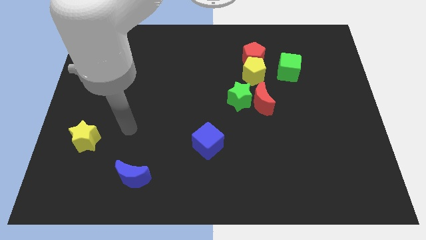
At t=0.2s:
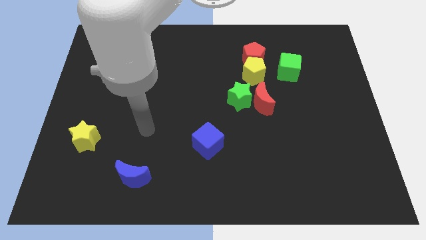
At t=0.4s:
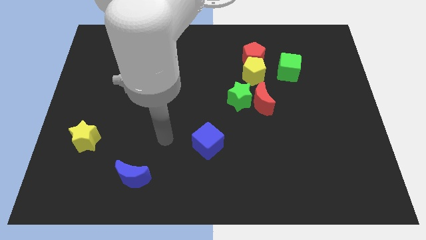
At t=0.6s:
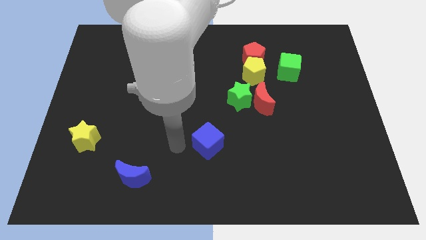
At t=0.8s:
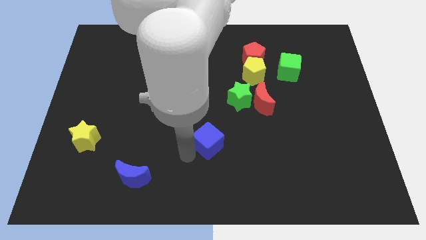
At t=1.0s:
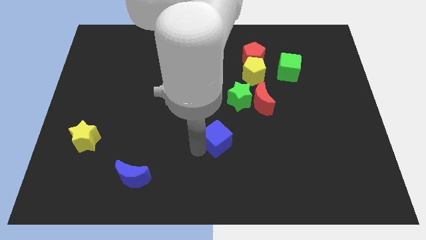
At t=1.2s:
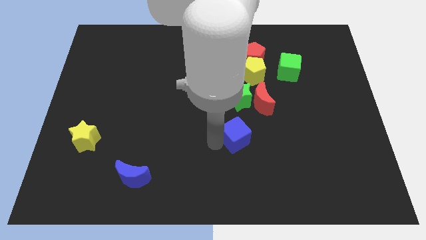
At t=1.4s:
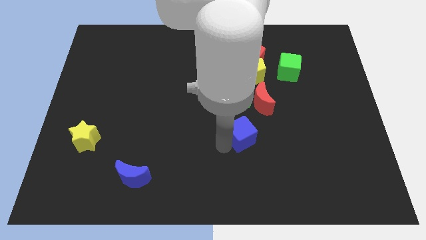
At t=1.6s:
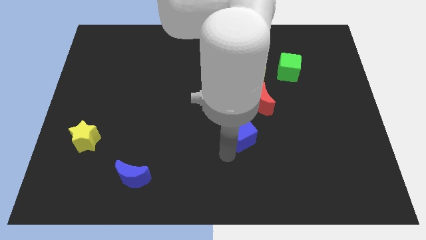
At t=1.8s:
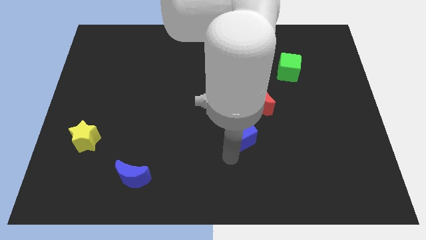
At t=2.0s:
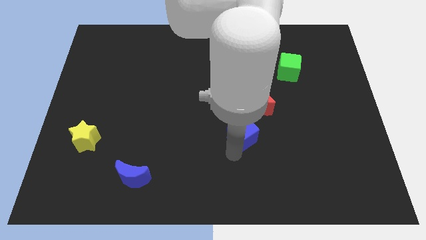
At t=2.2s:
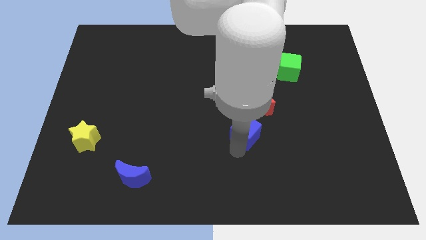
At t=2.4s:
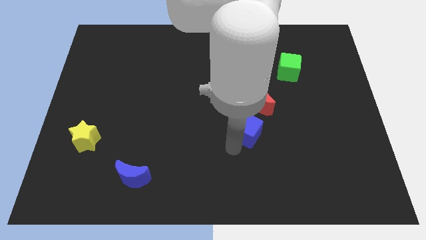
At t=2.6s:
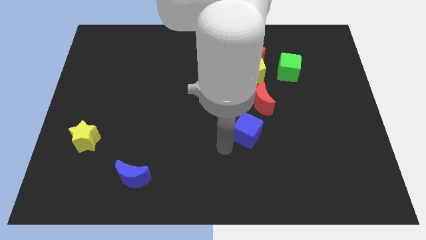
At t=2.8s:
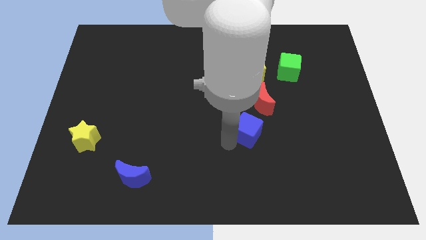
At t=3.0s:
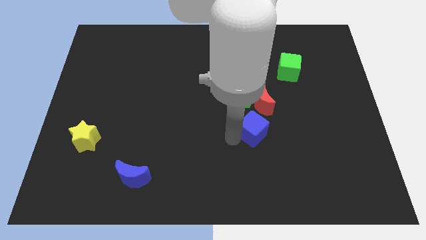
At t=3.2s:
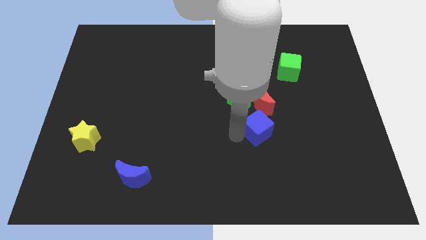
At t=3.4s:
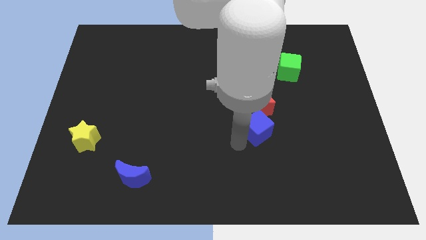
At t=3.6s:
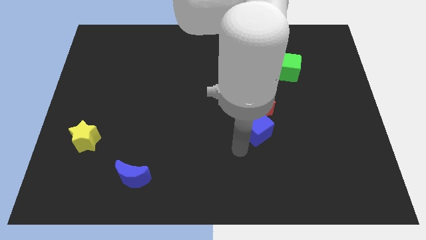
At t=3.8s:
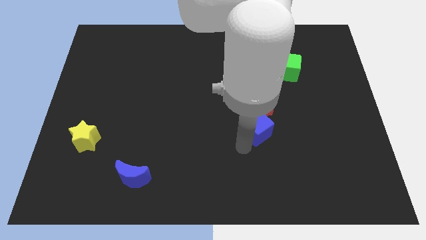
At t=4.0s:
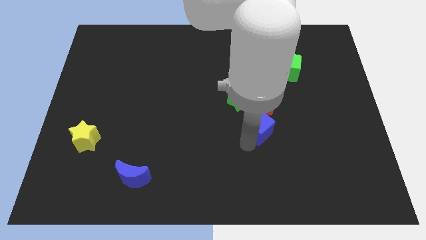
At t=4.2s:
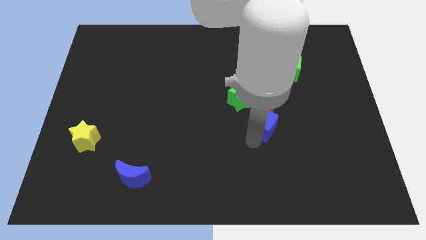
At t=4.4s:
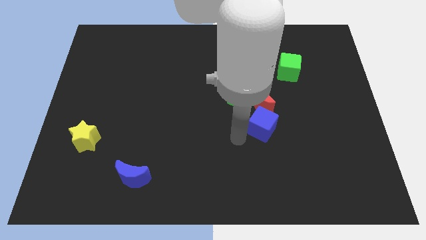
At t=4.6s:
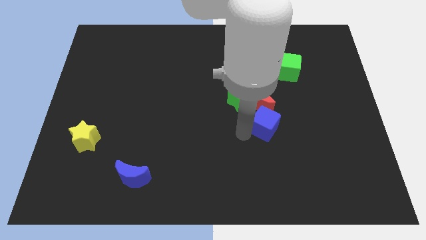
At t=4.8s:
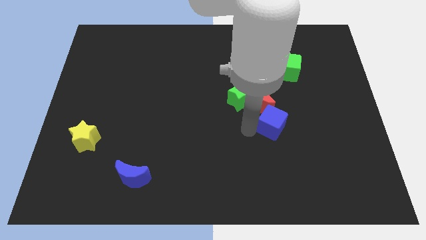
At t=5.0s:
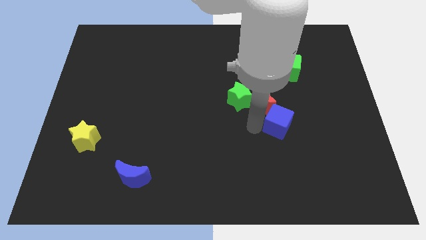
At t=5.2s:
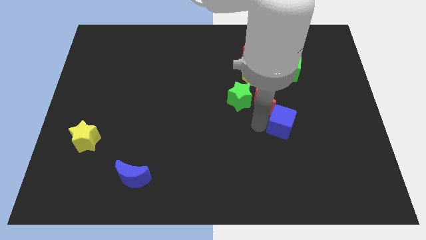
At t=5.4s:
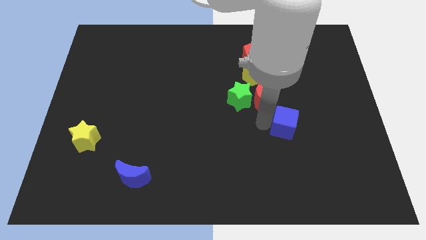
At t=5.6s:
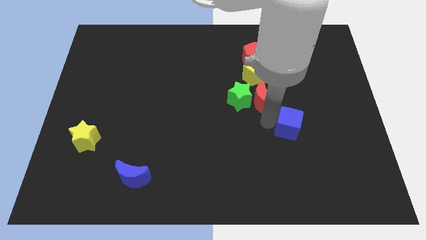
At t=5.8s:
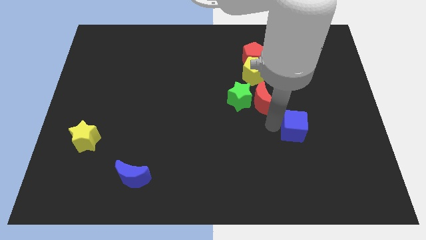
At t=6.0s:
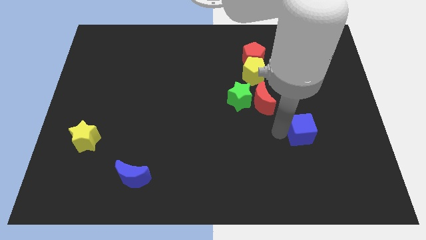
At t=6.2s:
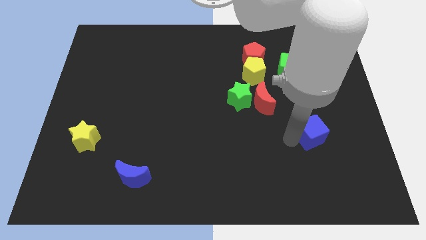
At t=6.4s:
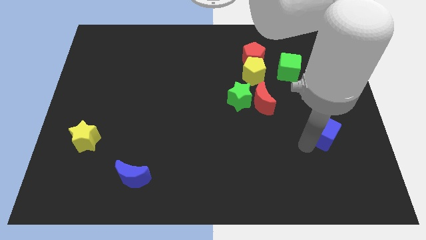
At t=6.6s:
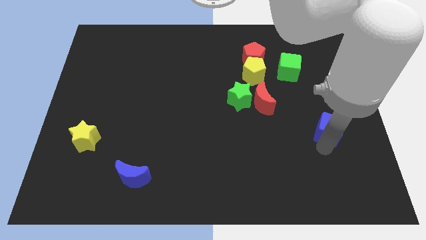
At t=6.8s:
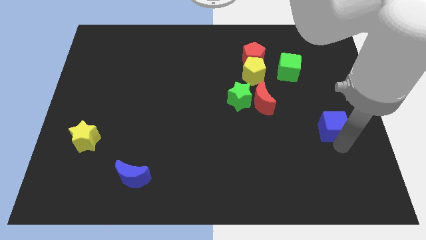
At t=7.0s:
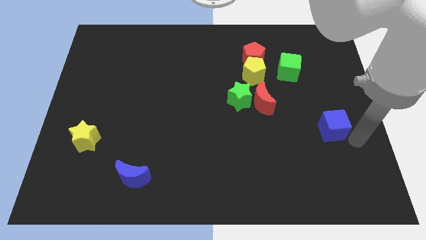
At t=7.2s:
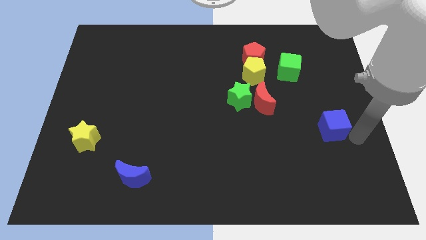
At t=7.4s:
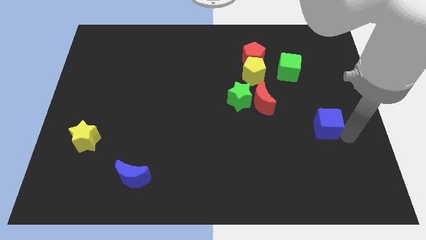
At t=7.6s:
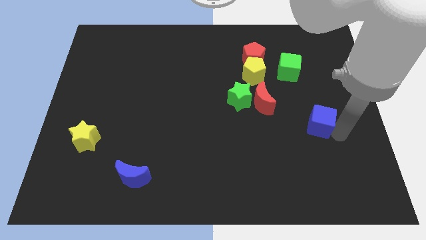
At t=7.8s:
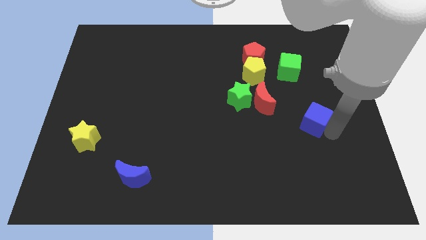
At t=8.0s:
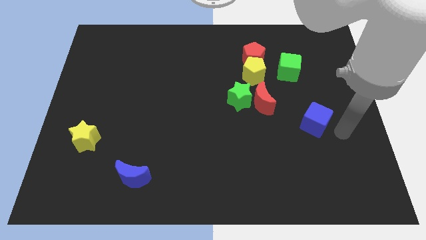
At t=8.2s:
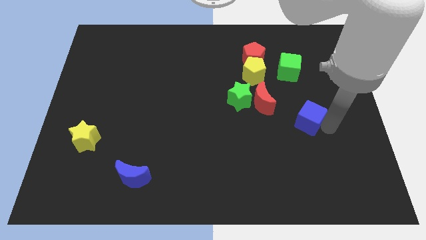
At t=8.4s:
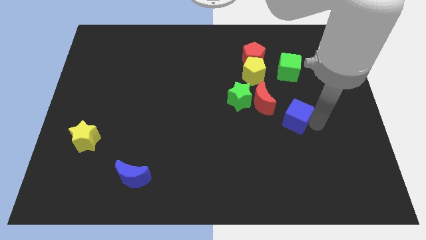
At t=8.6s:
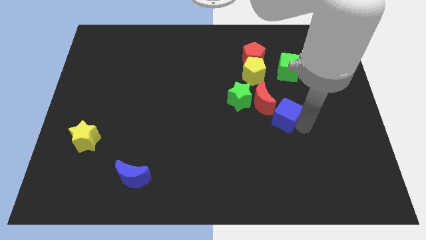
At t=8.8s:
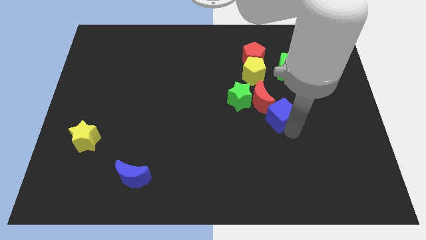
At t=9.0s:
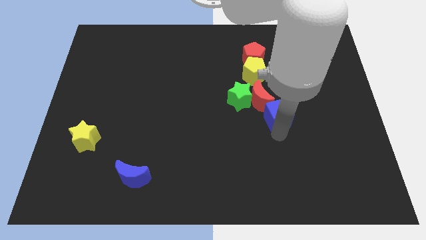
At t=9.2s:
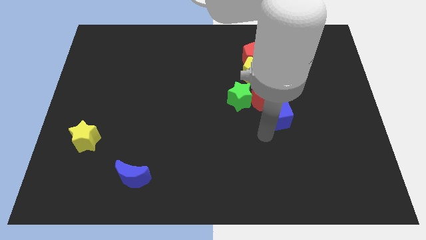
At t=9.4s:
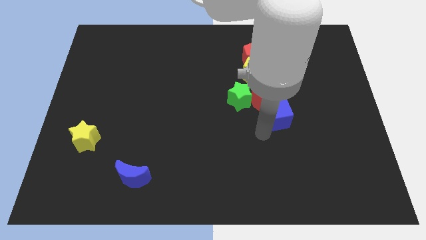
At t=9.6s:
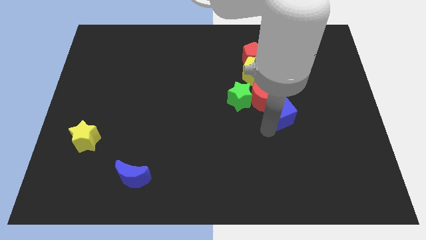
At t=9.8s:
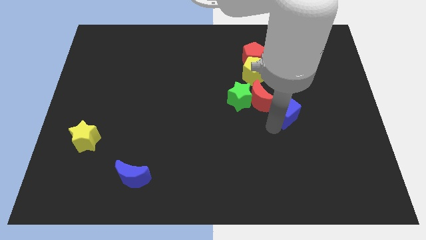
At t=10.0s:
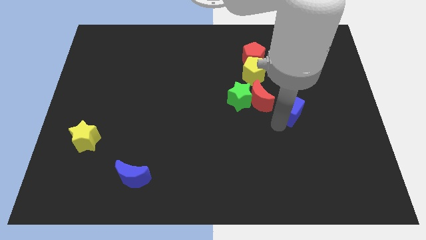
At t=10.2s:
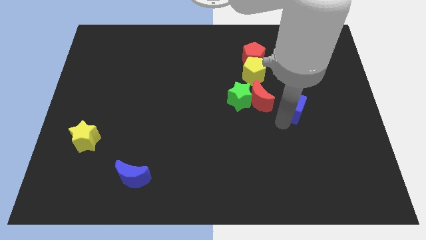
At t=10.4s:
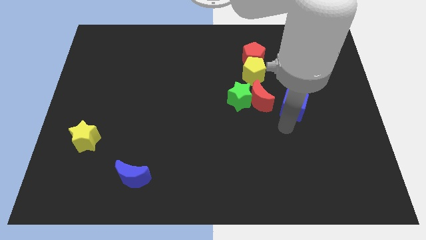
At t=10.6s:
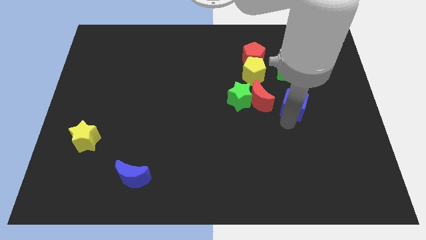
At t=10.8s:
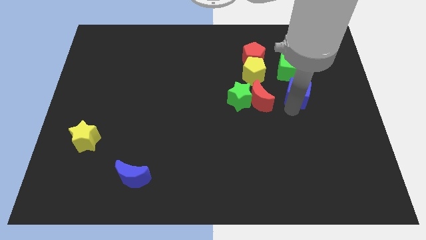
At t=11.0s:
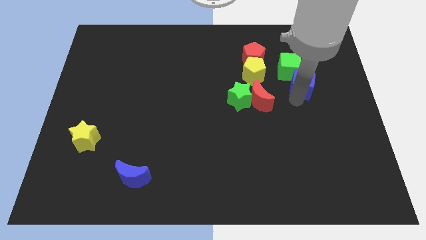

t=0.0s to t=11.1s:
slide the blue cube right of the yellow pentagon

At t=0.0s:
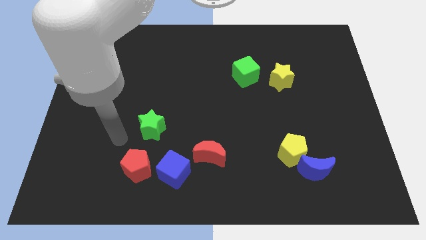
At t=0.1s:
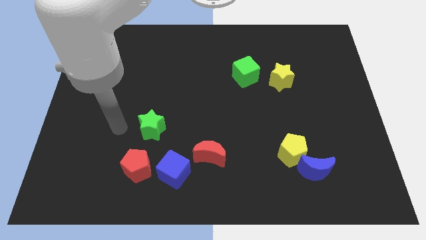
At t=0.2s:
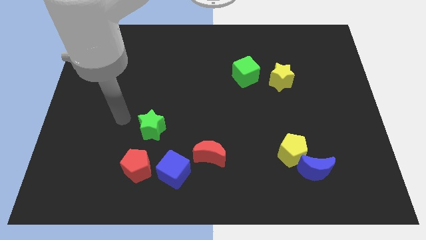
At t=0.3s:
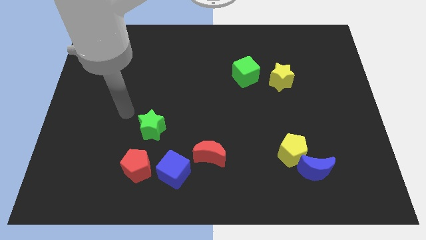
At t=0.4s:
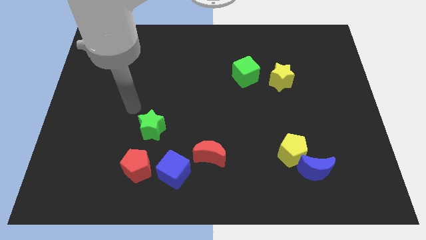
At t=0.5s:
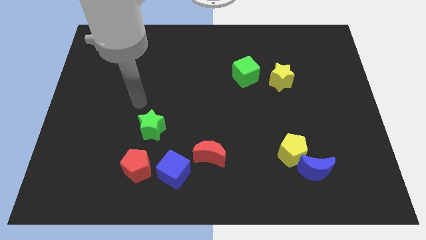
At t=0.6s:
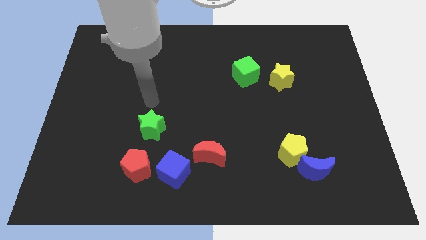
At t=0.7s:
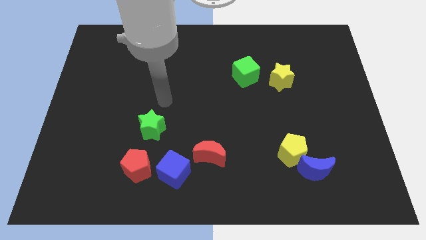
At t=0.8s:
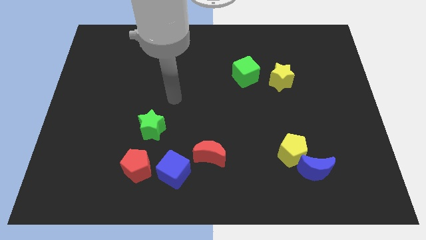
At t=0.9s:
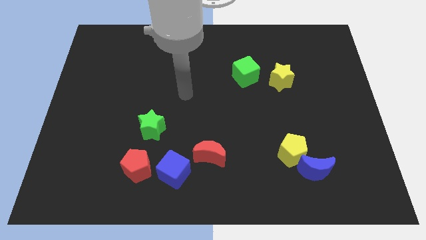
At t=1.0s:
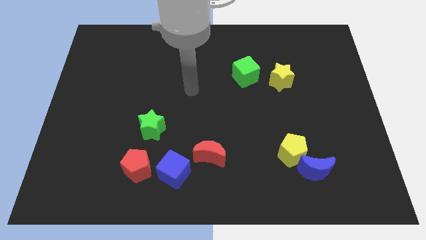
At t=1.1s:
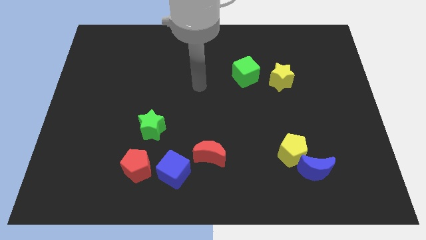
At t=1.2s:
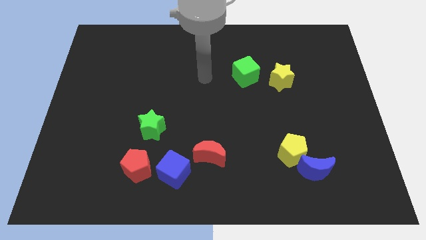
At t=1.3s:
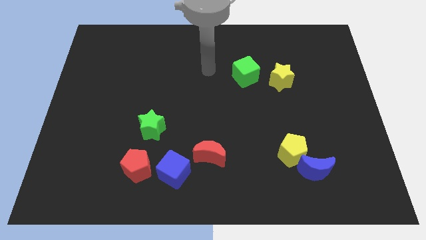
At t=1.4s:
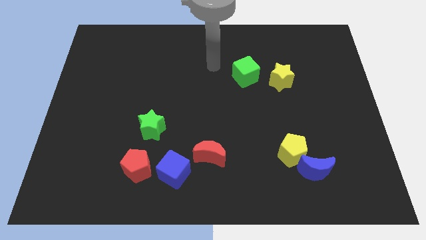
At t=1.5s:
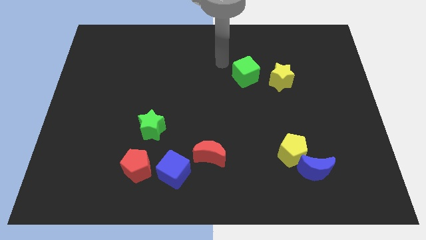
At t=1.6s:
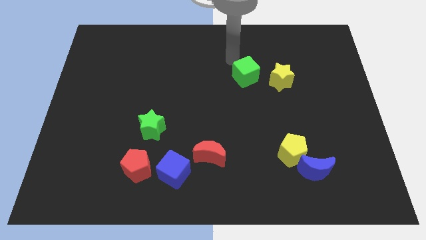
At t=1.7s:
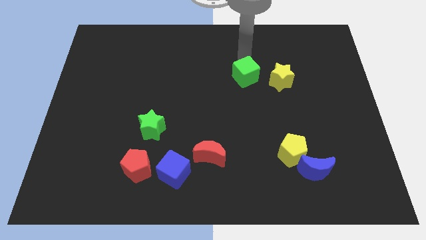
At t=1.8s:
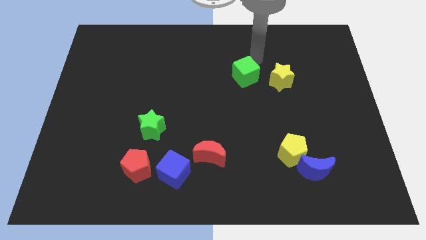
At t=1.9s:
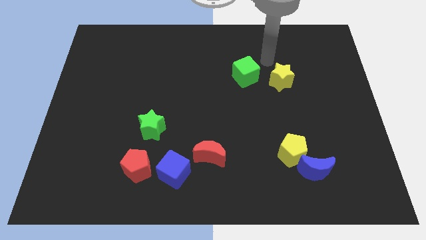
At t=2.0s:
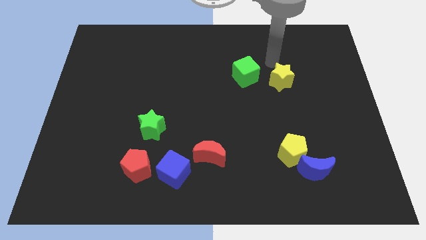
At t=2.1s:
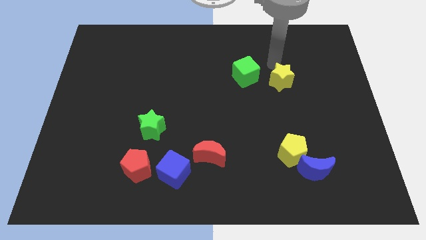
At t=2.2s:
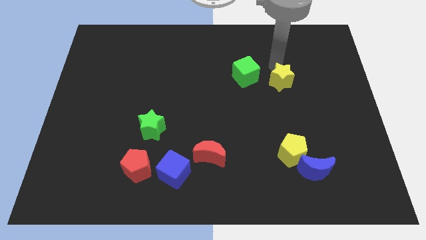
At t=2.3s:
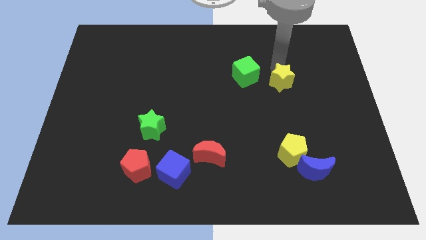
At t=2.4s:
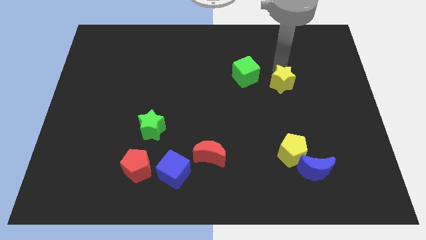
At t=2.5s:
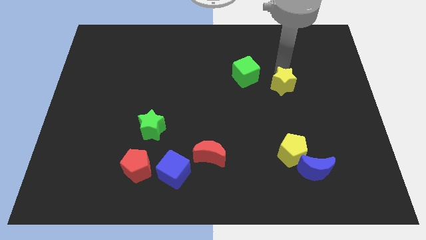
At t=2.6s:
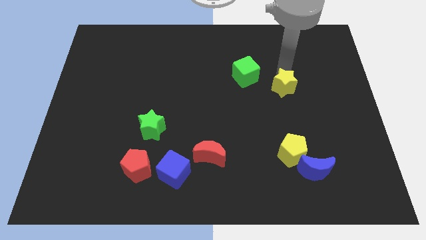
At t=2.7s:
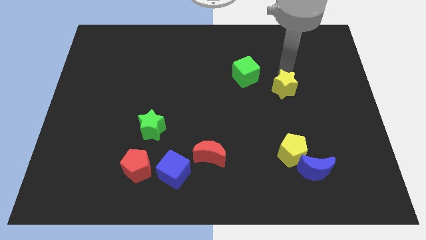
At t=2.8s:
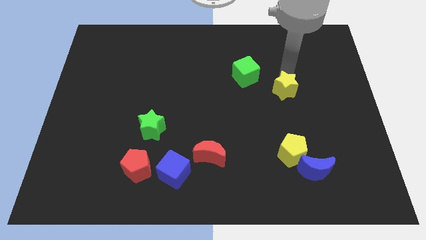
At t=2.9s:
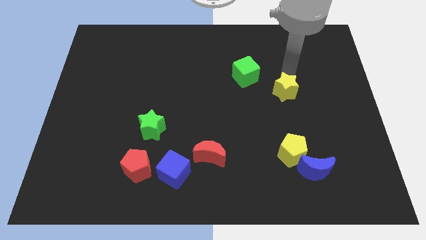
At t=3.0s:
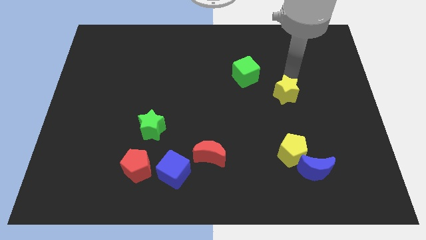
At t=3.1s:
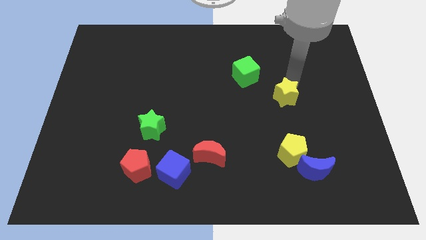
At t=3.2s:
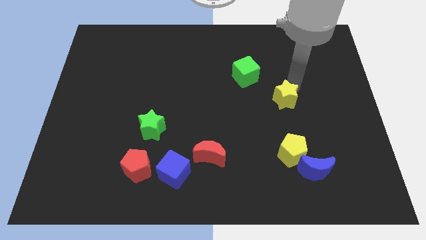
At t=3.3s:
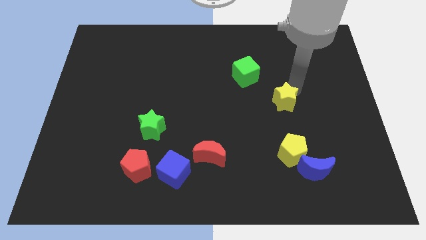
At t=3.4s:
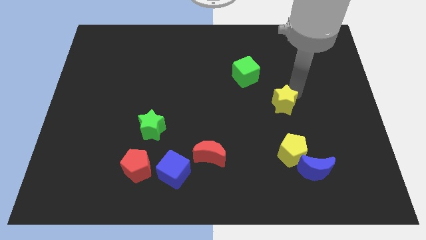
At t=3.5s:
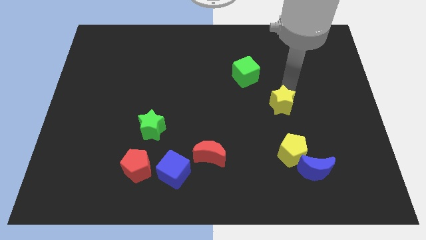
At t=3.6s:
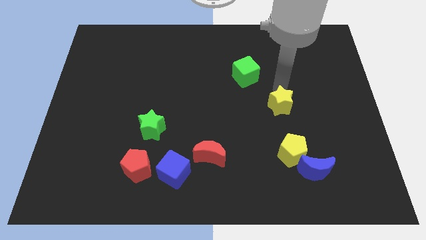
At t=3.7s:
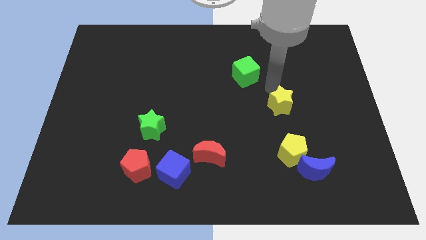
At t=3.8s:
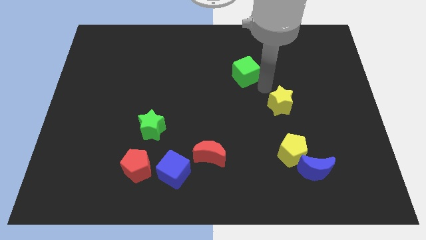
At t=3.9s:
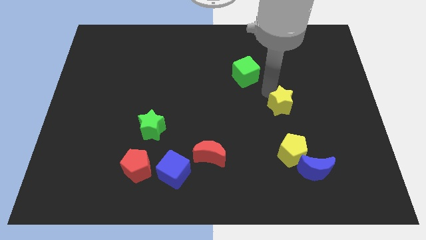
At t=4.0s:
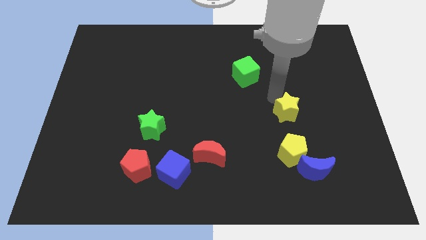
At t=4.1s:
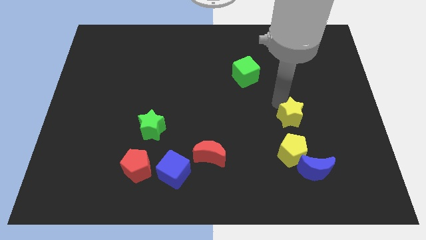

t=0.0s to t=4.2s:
slide the yellow star to the top of the blue moon
